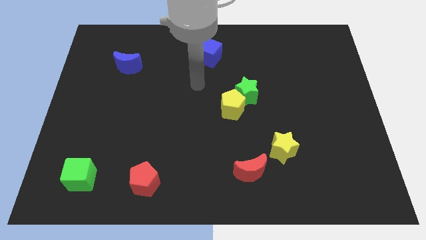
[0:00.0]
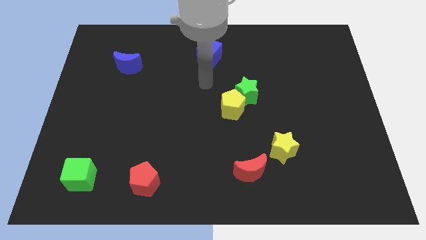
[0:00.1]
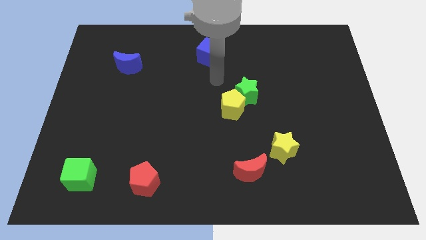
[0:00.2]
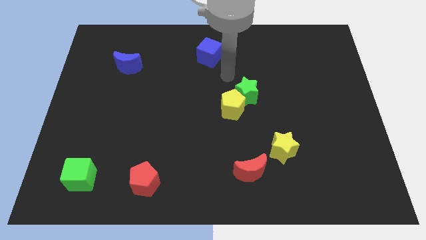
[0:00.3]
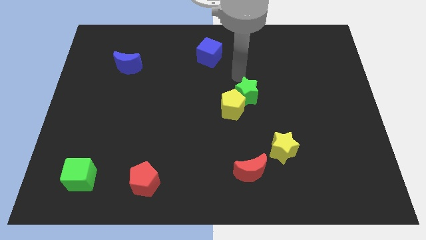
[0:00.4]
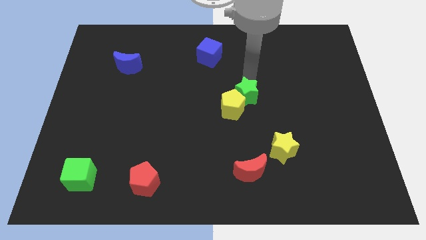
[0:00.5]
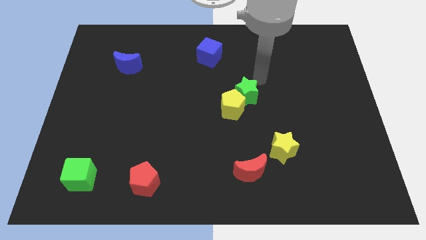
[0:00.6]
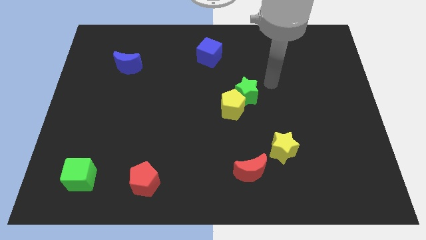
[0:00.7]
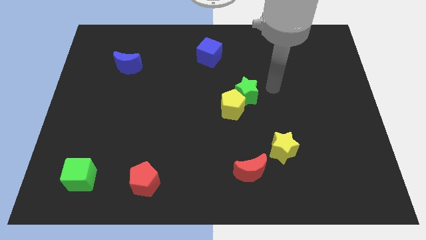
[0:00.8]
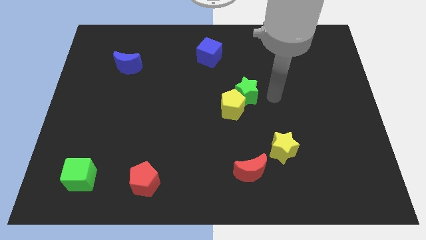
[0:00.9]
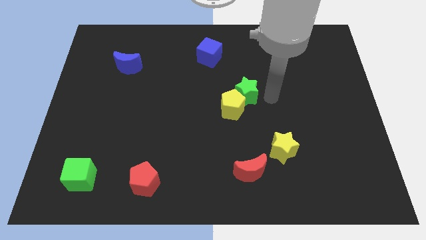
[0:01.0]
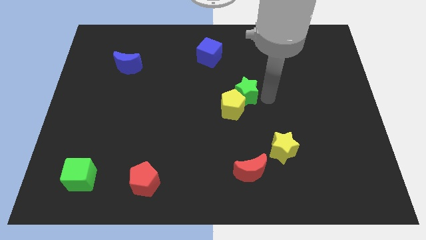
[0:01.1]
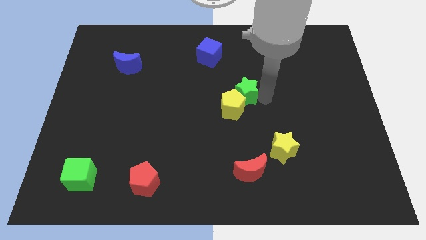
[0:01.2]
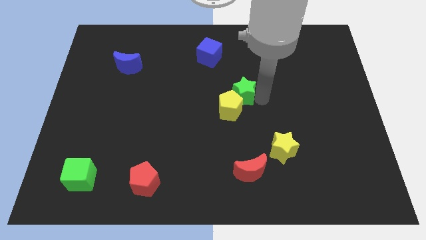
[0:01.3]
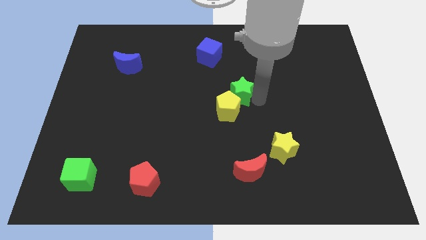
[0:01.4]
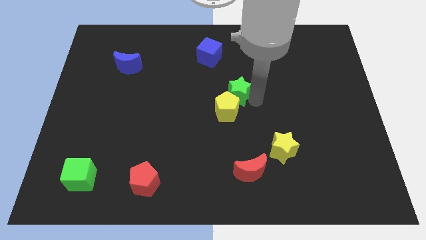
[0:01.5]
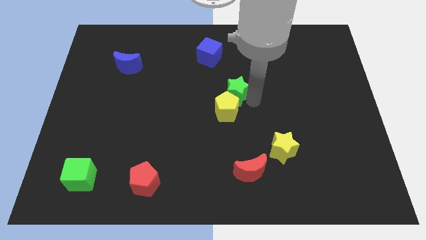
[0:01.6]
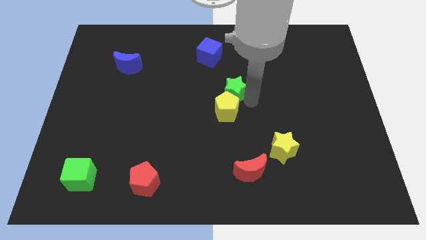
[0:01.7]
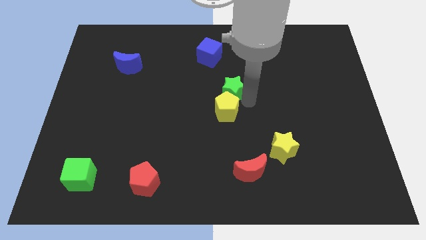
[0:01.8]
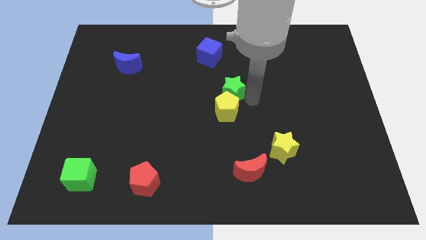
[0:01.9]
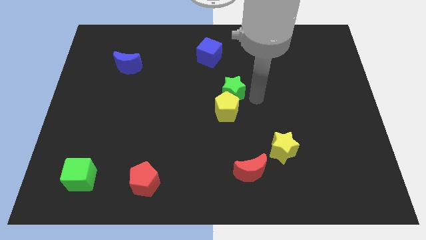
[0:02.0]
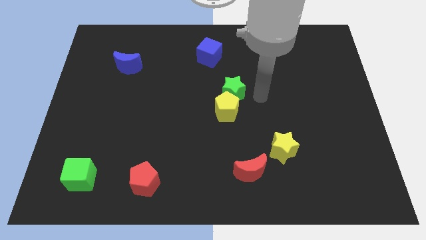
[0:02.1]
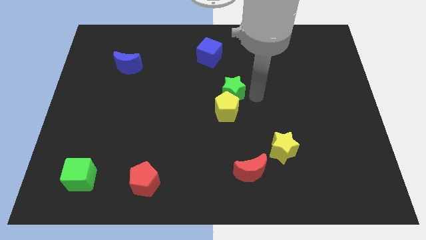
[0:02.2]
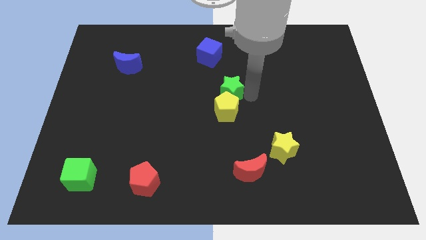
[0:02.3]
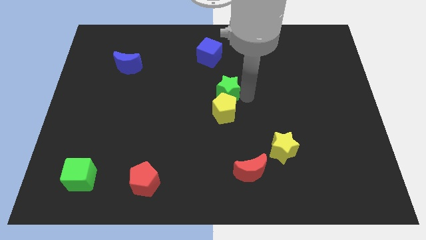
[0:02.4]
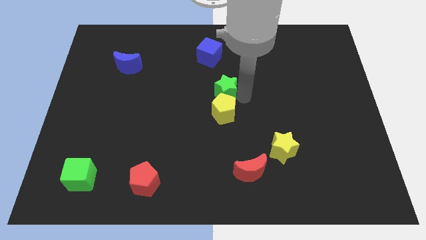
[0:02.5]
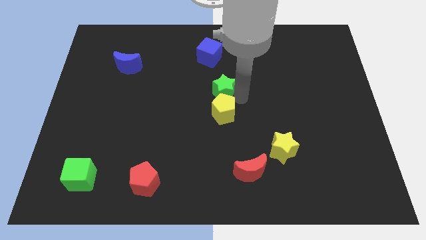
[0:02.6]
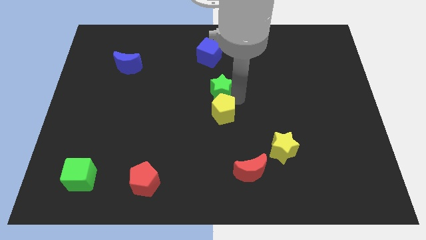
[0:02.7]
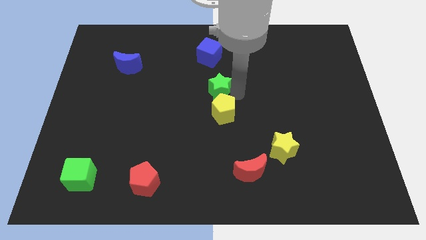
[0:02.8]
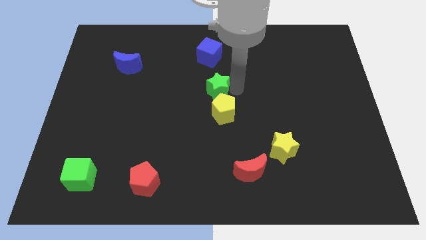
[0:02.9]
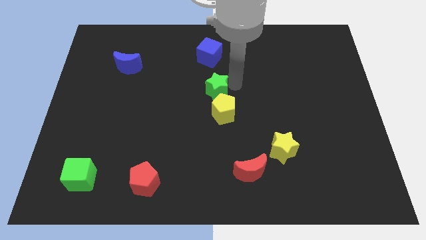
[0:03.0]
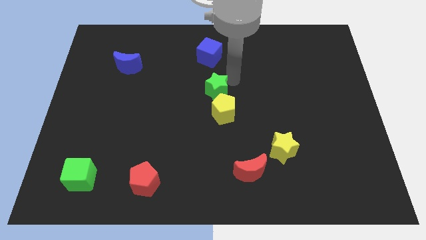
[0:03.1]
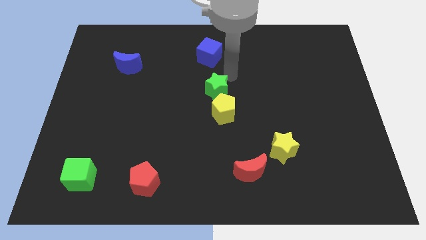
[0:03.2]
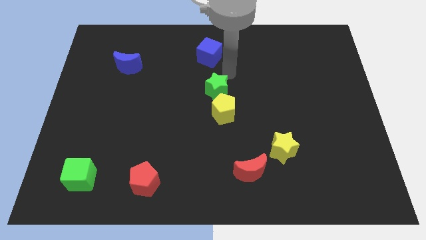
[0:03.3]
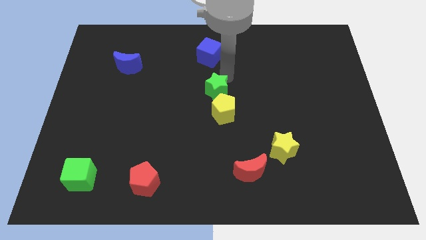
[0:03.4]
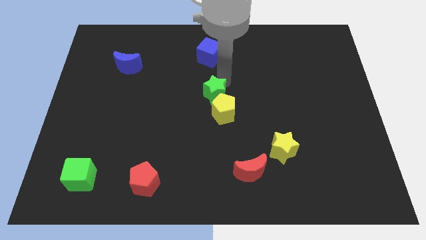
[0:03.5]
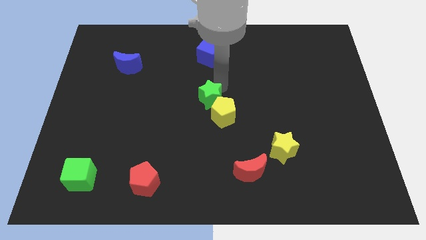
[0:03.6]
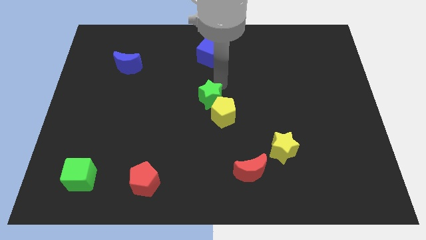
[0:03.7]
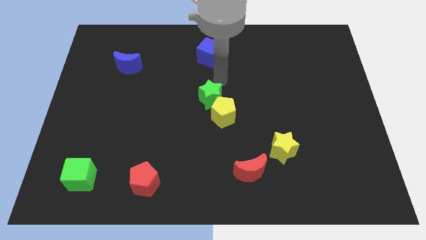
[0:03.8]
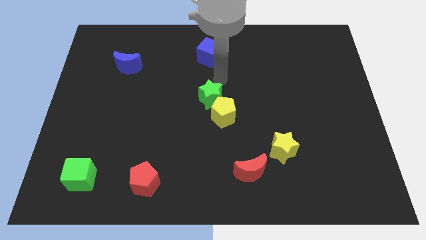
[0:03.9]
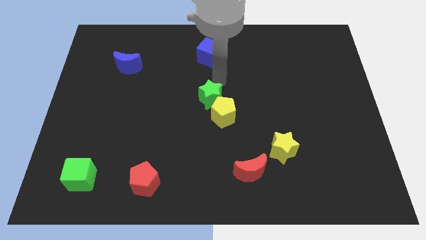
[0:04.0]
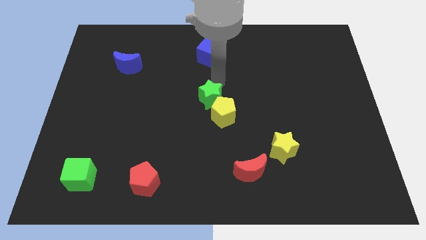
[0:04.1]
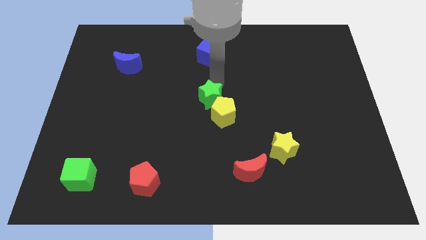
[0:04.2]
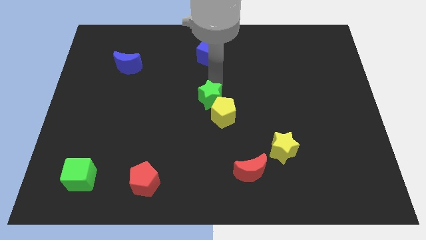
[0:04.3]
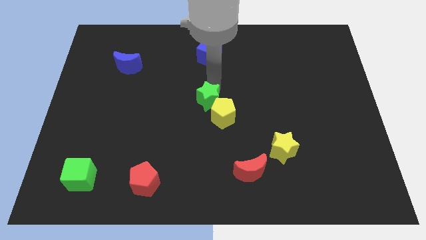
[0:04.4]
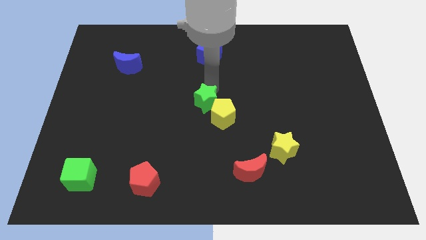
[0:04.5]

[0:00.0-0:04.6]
push the green star a little down and then to the left

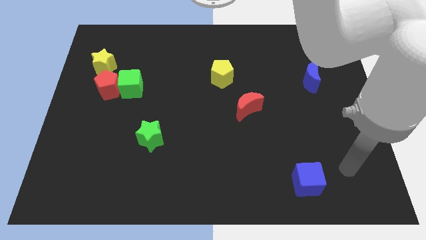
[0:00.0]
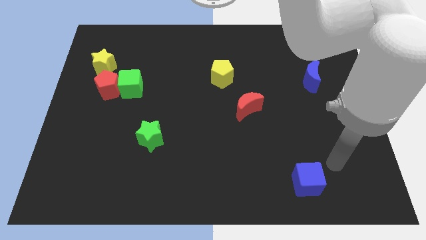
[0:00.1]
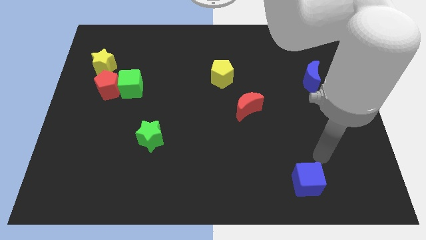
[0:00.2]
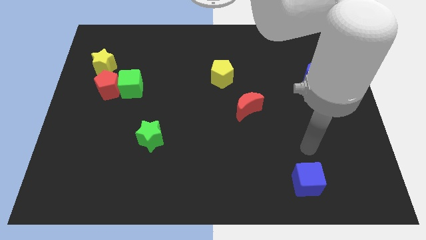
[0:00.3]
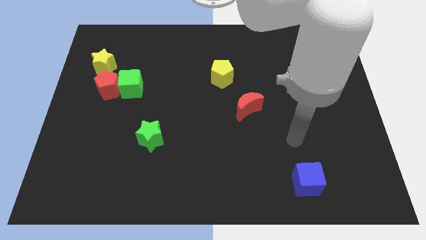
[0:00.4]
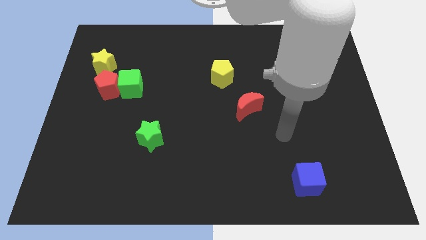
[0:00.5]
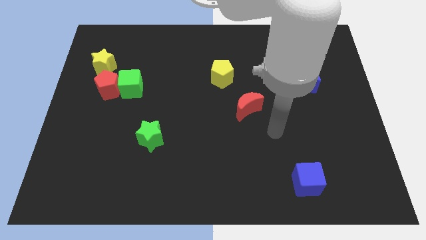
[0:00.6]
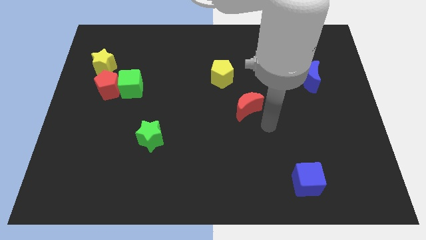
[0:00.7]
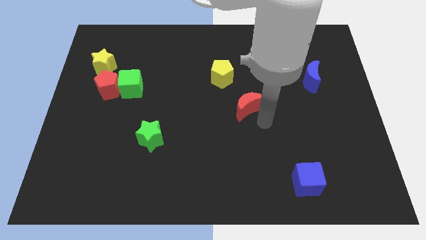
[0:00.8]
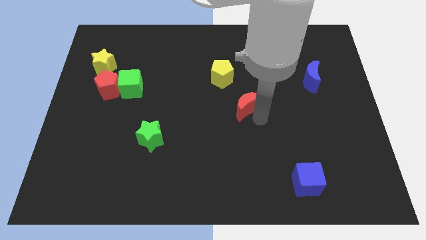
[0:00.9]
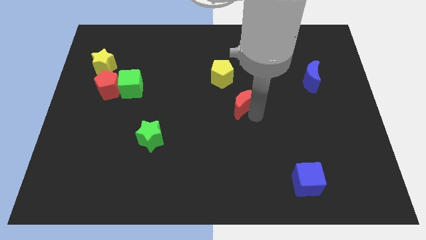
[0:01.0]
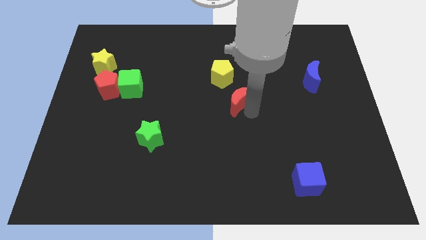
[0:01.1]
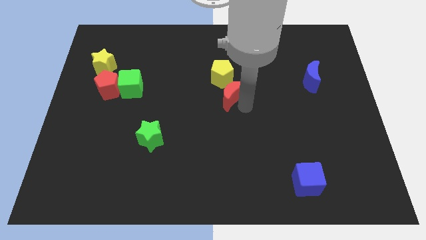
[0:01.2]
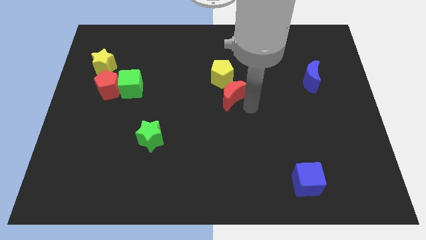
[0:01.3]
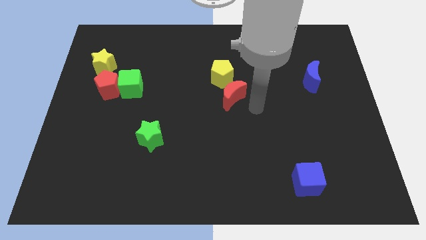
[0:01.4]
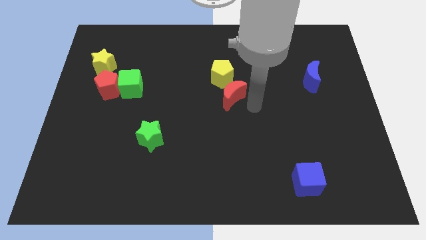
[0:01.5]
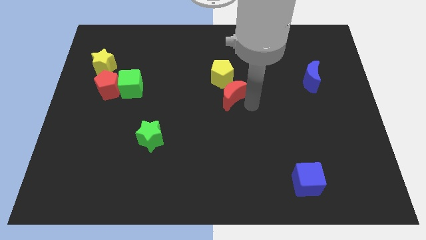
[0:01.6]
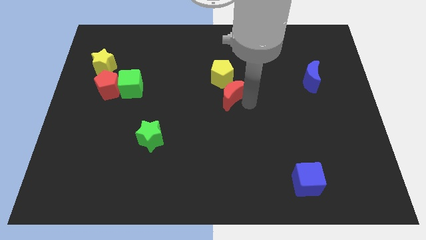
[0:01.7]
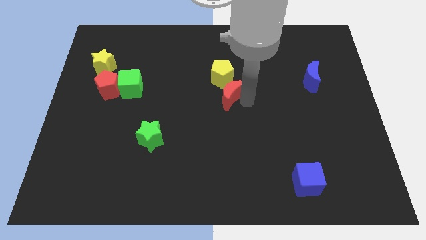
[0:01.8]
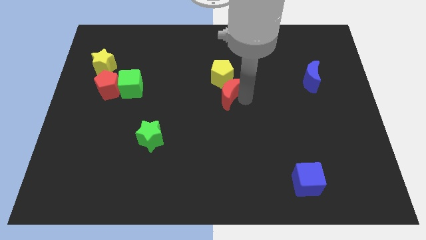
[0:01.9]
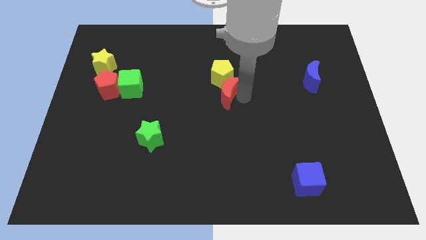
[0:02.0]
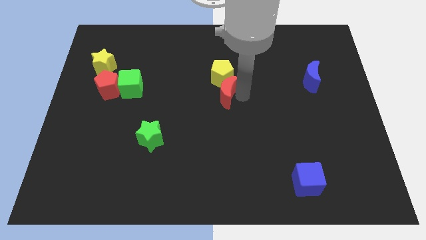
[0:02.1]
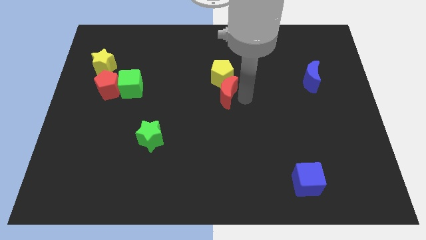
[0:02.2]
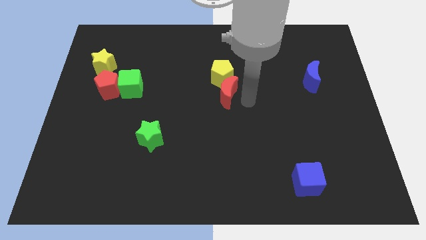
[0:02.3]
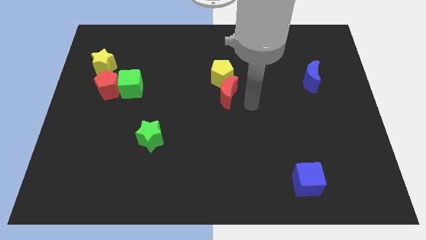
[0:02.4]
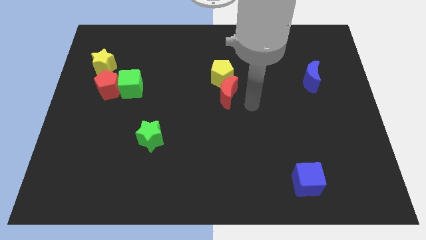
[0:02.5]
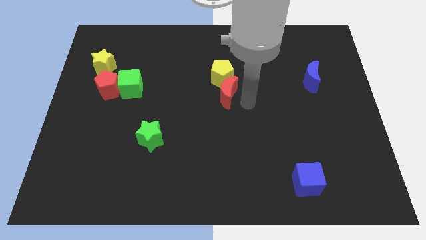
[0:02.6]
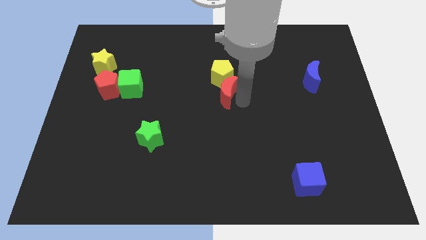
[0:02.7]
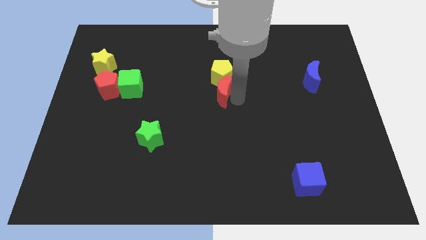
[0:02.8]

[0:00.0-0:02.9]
slightly push the red moon diagonally upwards and left

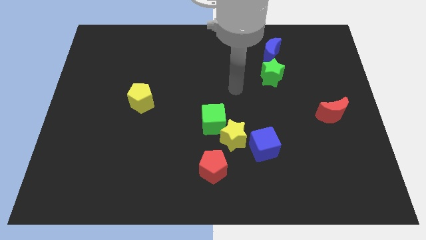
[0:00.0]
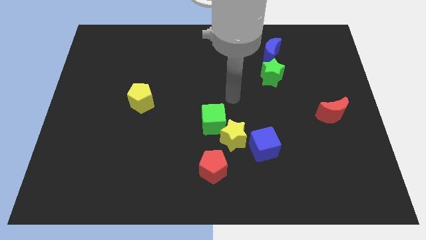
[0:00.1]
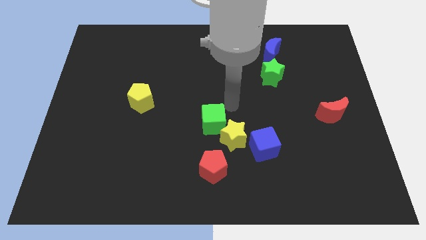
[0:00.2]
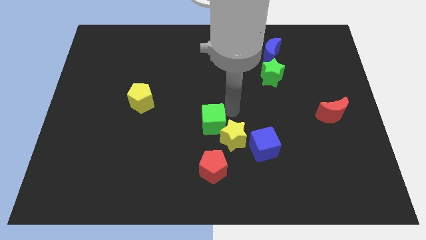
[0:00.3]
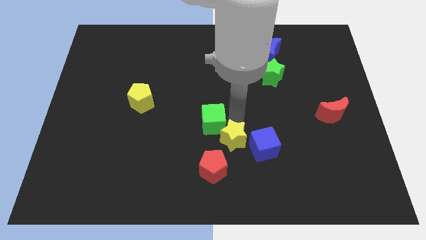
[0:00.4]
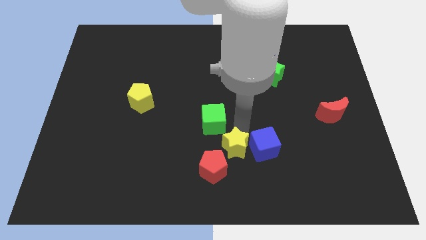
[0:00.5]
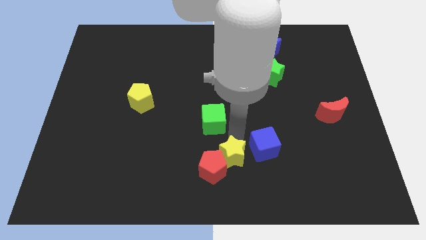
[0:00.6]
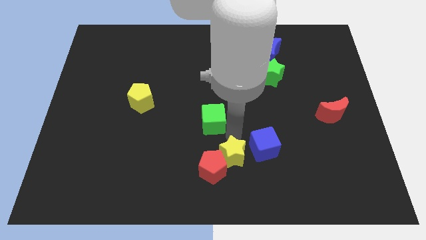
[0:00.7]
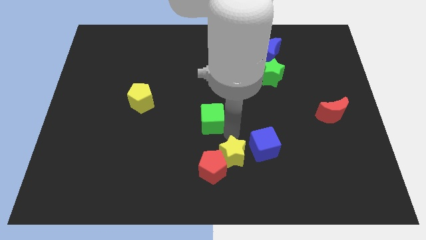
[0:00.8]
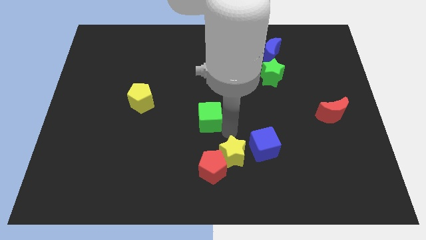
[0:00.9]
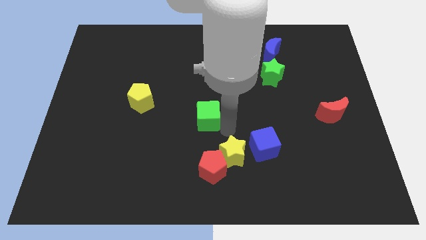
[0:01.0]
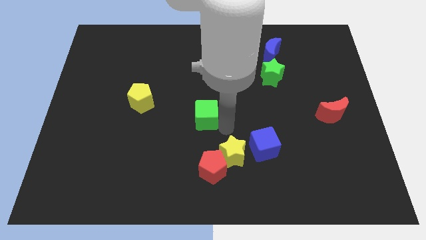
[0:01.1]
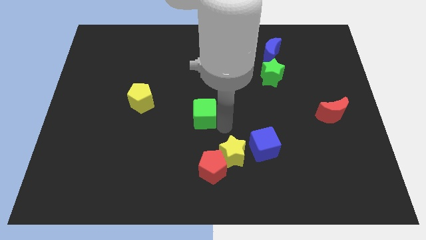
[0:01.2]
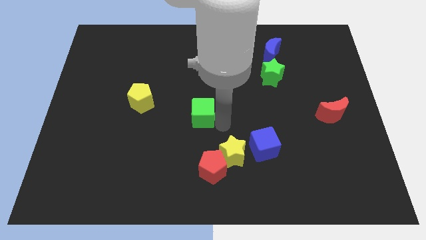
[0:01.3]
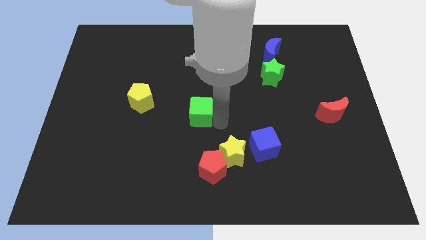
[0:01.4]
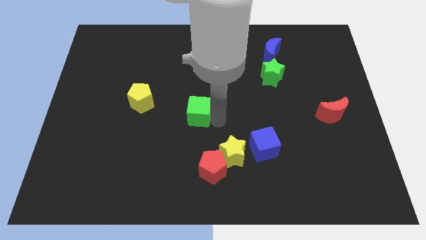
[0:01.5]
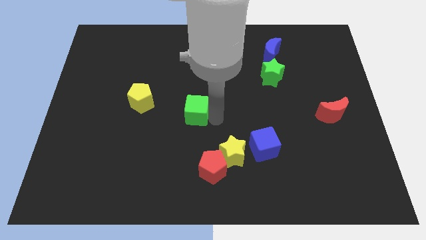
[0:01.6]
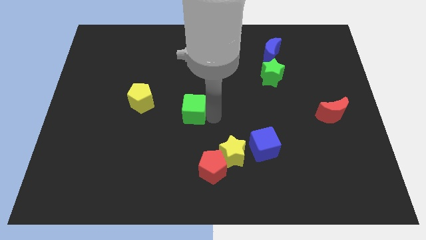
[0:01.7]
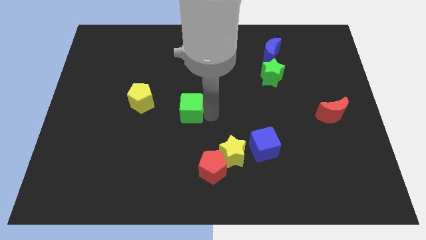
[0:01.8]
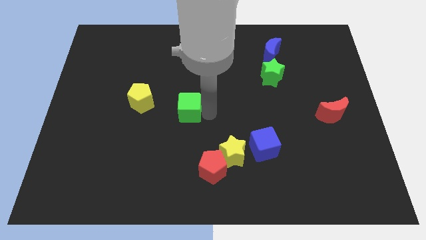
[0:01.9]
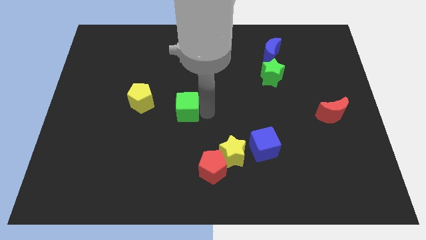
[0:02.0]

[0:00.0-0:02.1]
push the green cube diagonally up and to the left a bit
